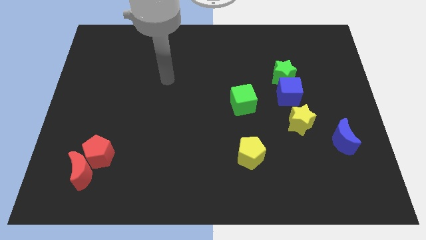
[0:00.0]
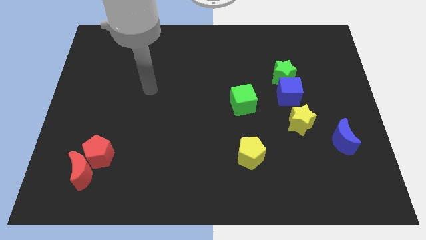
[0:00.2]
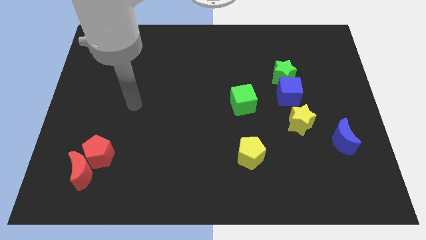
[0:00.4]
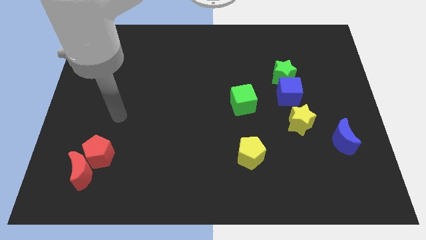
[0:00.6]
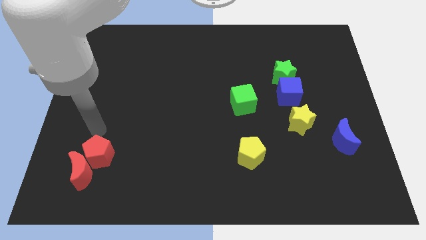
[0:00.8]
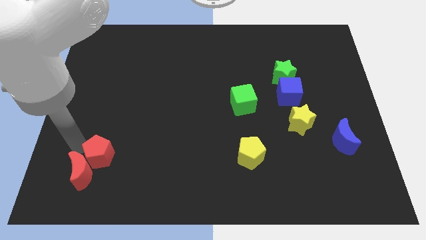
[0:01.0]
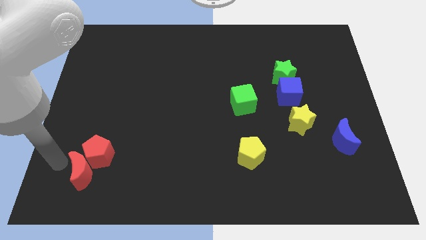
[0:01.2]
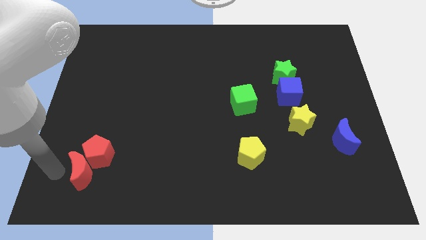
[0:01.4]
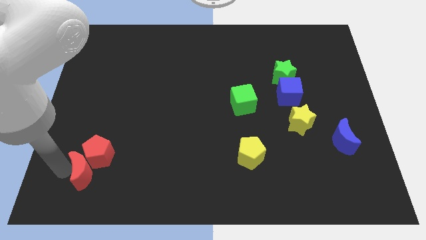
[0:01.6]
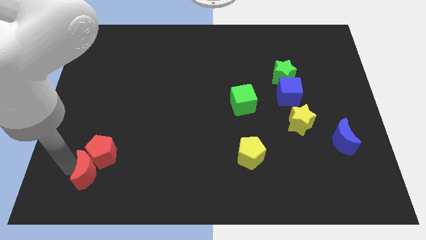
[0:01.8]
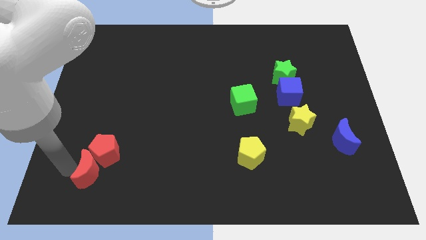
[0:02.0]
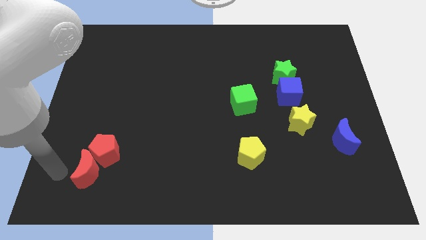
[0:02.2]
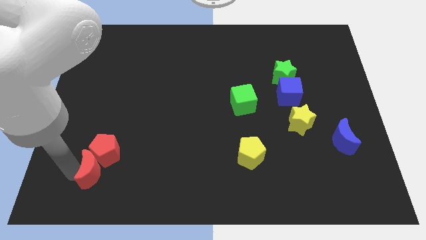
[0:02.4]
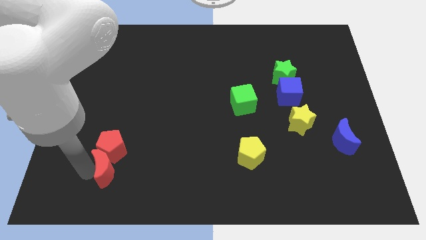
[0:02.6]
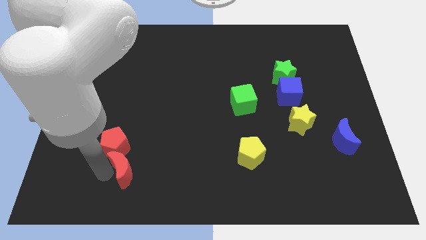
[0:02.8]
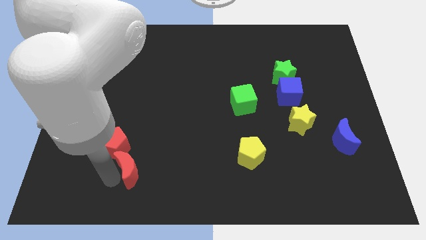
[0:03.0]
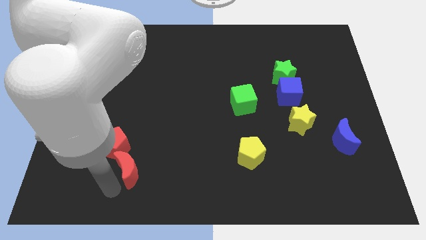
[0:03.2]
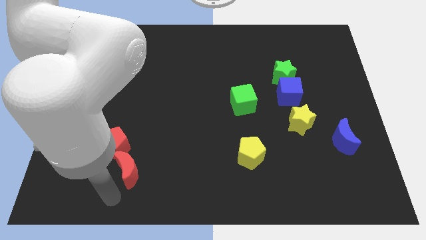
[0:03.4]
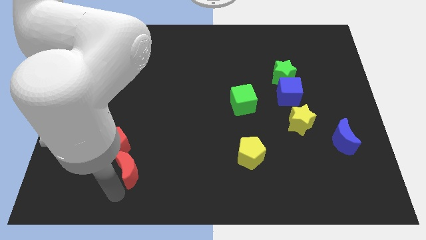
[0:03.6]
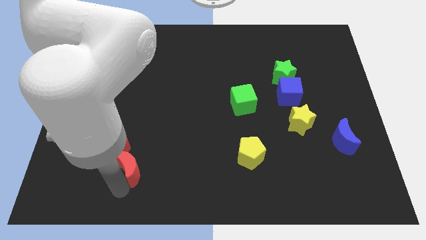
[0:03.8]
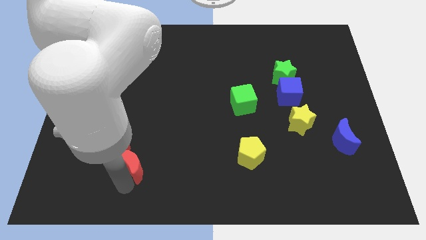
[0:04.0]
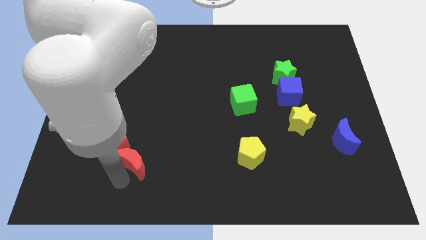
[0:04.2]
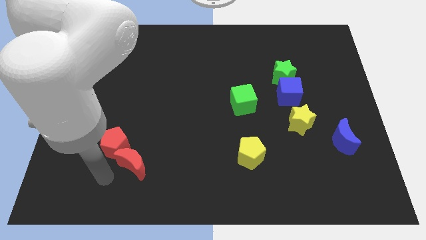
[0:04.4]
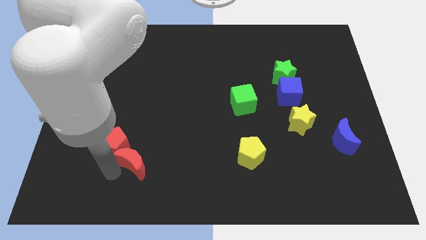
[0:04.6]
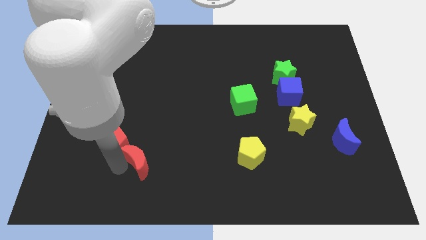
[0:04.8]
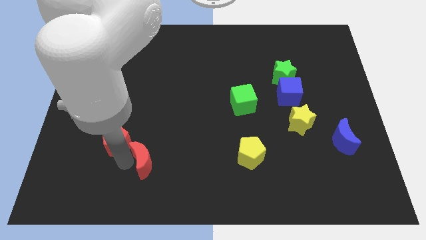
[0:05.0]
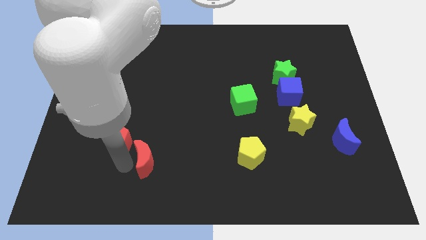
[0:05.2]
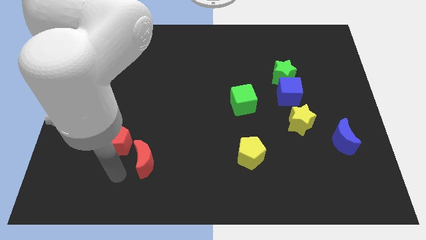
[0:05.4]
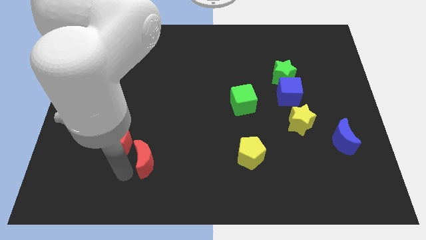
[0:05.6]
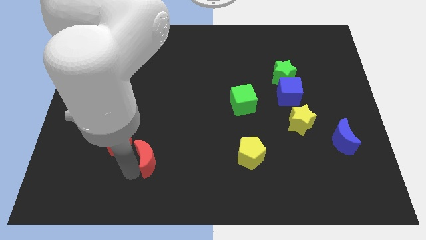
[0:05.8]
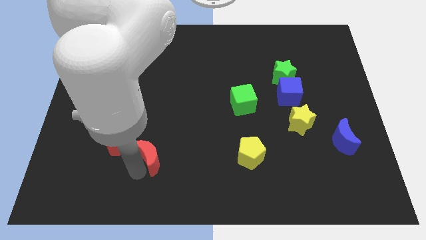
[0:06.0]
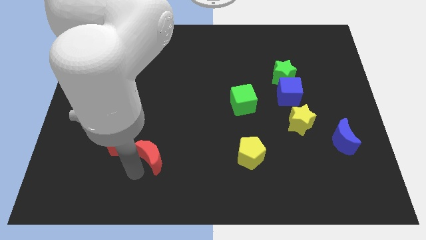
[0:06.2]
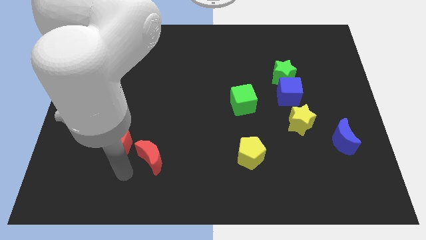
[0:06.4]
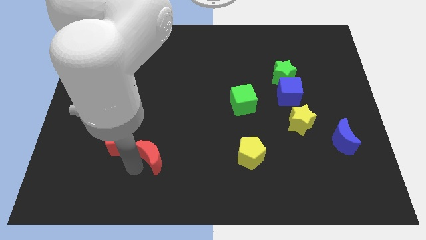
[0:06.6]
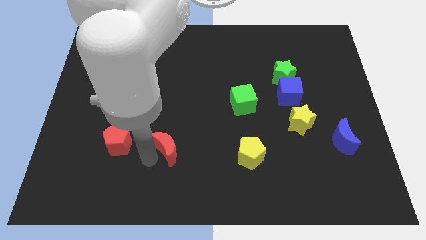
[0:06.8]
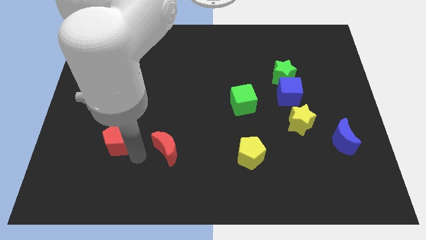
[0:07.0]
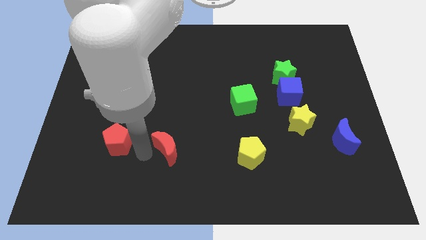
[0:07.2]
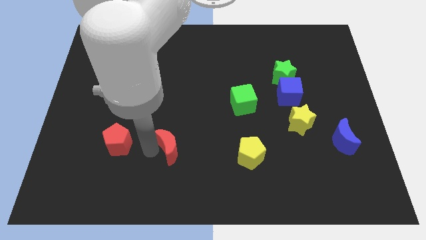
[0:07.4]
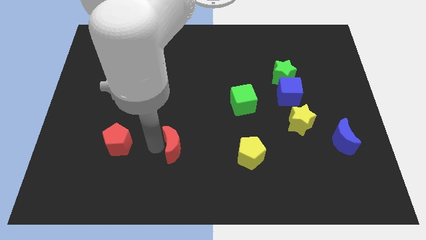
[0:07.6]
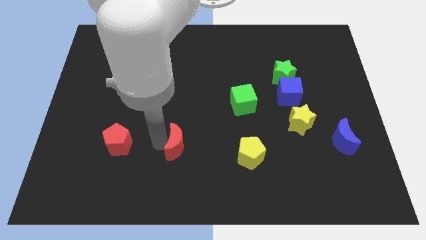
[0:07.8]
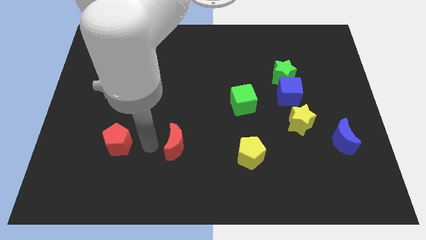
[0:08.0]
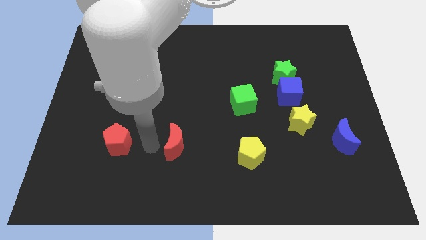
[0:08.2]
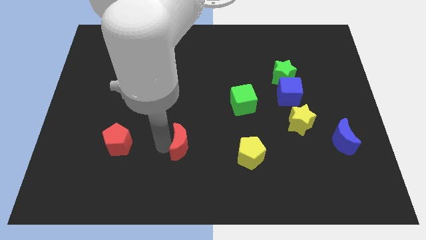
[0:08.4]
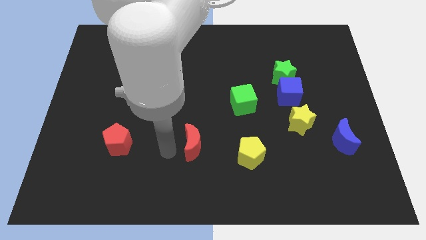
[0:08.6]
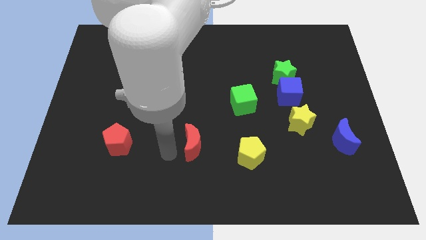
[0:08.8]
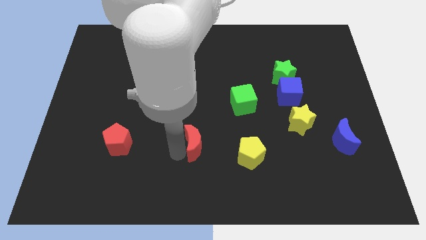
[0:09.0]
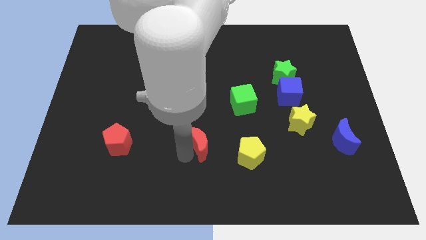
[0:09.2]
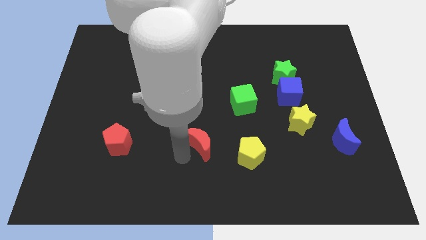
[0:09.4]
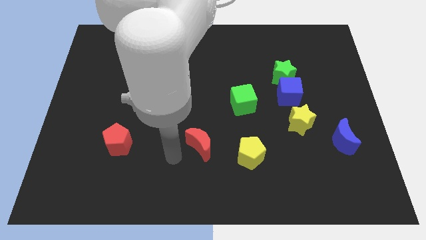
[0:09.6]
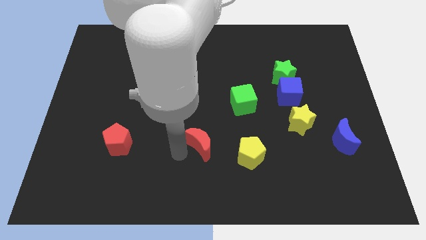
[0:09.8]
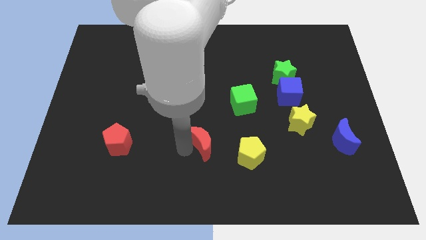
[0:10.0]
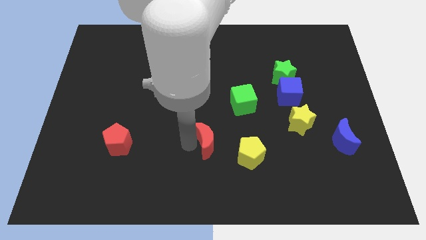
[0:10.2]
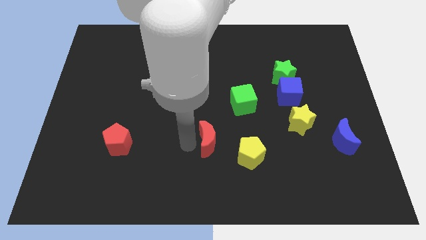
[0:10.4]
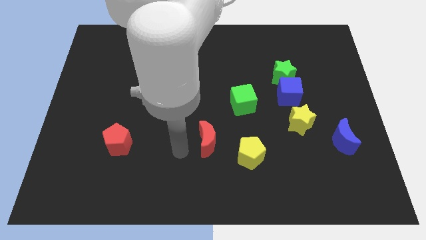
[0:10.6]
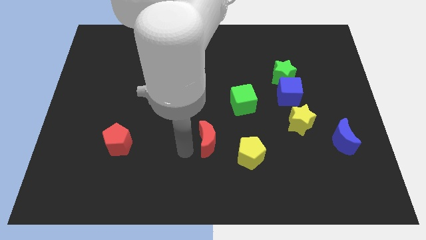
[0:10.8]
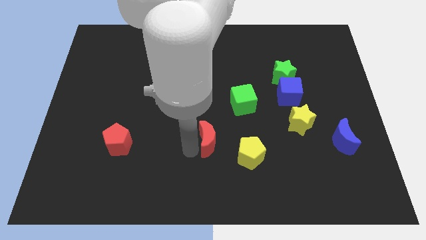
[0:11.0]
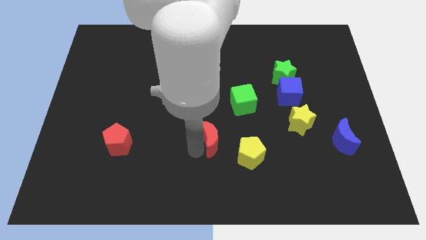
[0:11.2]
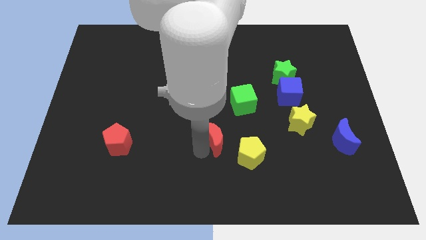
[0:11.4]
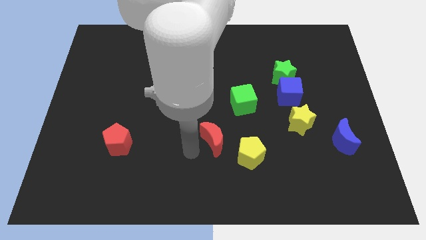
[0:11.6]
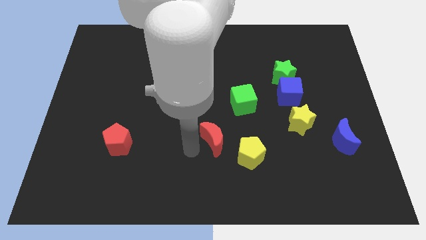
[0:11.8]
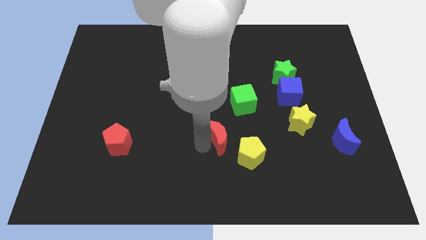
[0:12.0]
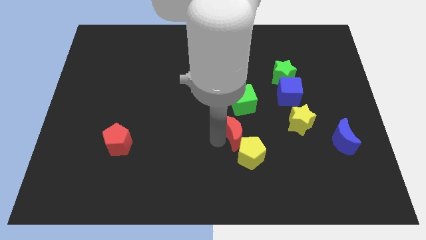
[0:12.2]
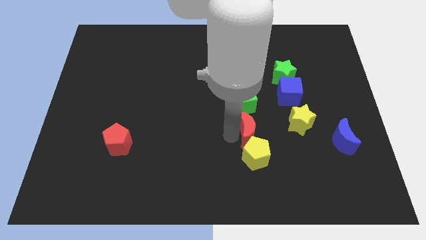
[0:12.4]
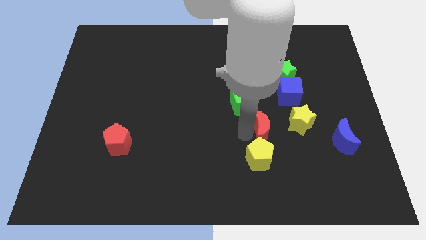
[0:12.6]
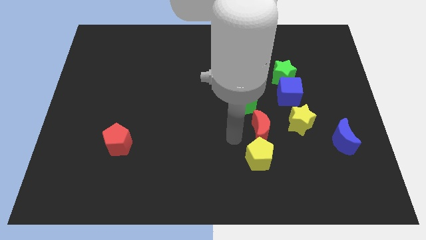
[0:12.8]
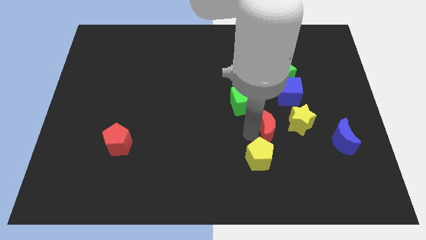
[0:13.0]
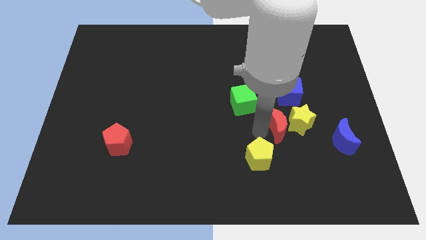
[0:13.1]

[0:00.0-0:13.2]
push the red moon to the yellow star

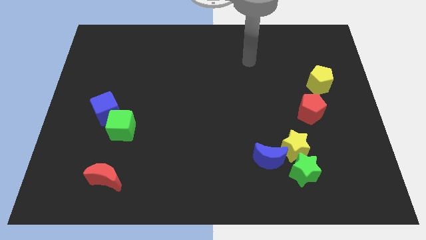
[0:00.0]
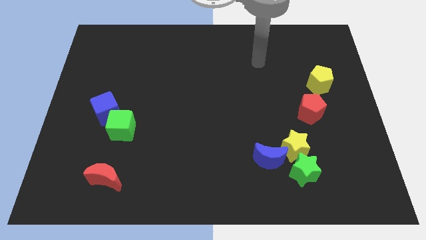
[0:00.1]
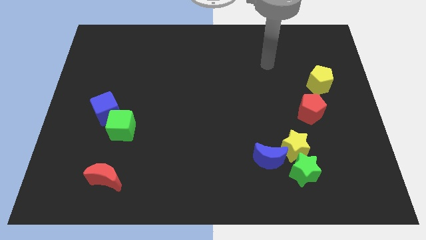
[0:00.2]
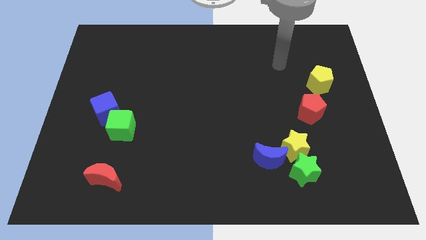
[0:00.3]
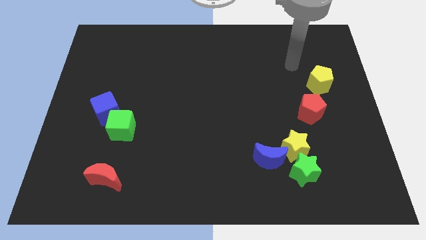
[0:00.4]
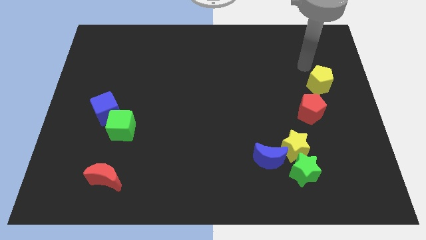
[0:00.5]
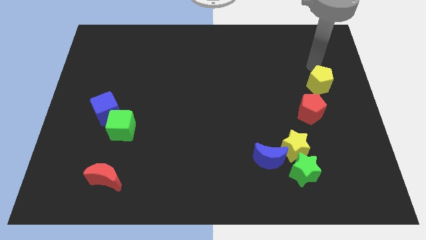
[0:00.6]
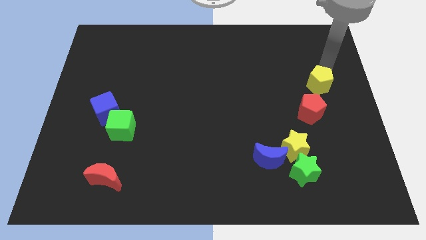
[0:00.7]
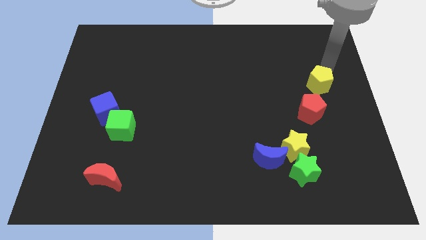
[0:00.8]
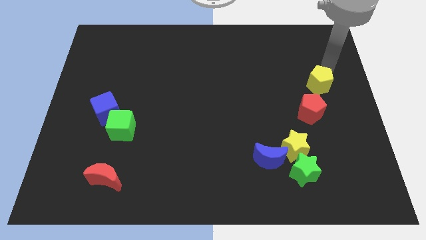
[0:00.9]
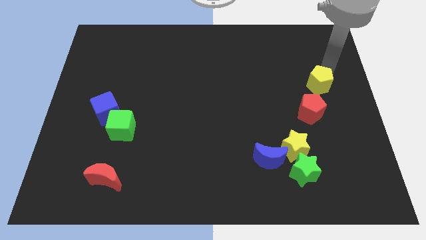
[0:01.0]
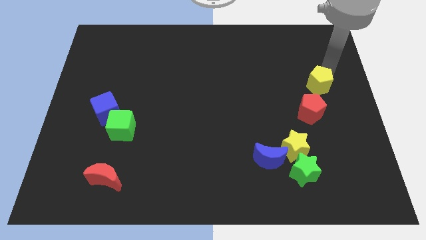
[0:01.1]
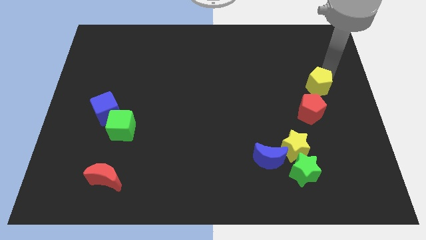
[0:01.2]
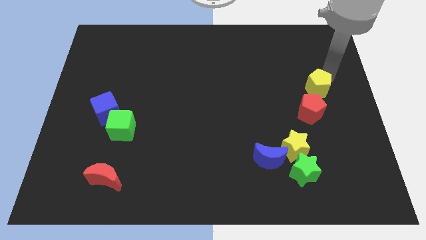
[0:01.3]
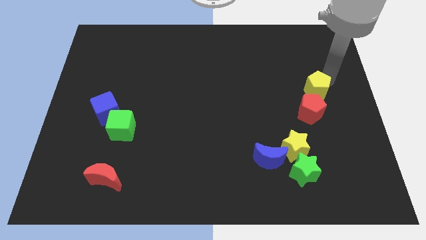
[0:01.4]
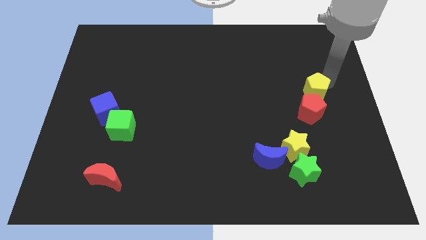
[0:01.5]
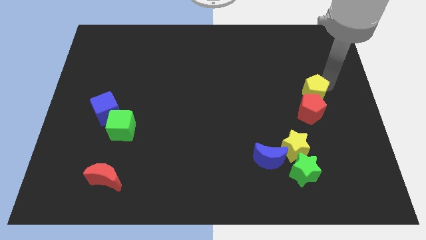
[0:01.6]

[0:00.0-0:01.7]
slide the yellow pentagon next to the red pentagon
